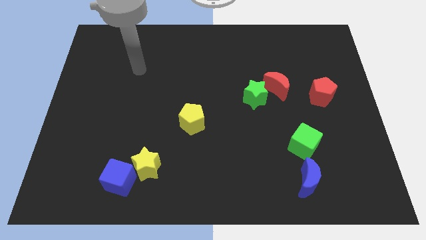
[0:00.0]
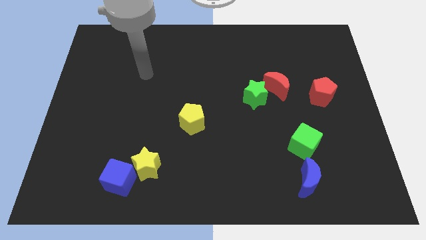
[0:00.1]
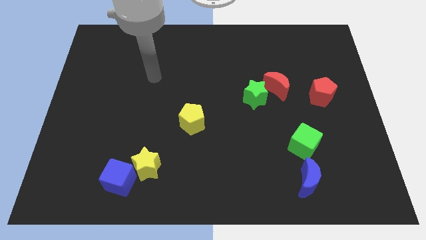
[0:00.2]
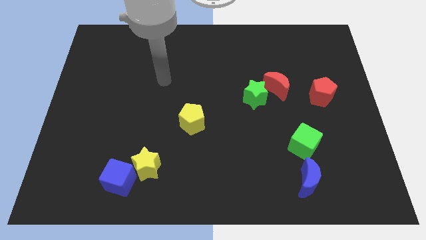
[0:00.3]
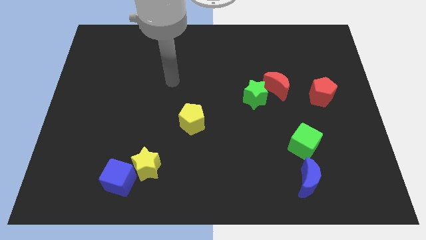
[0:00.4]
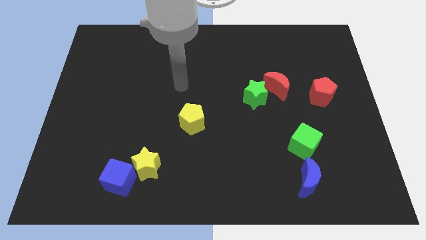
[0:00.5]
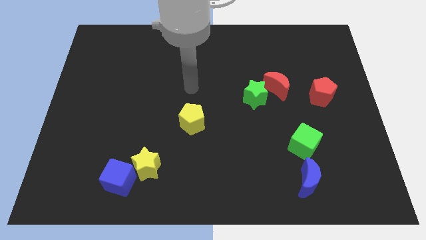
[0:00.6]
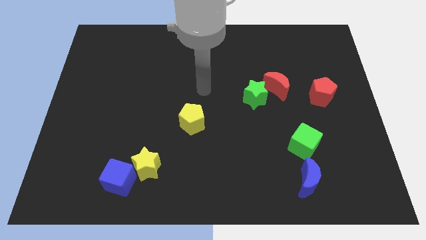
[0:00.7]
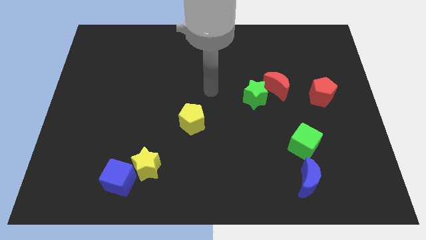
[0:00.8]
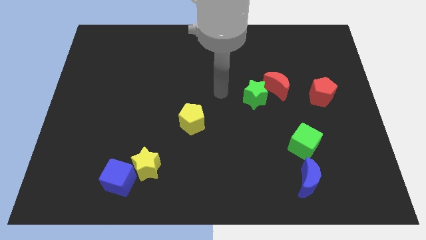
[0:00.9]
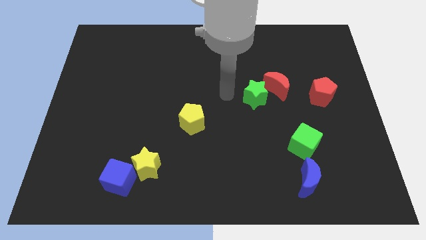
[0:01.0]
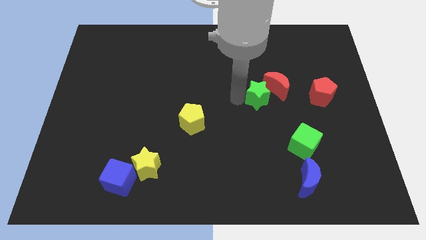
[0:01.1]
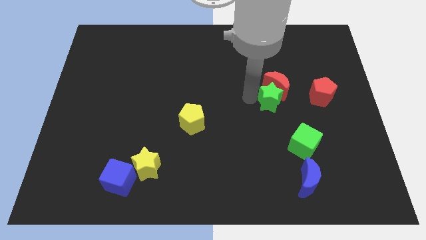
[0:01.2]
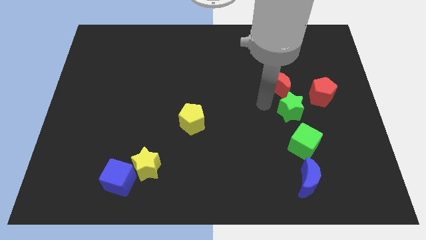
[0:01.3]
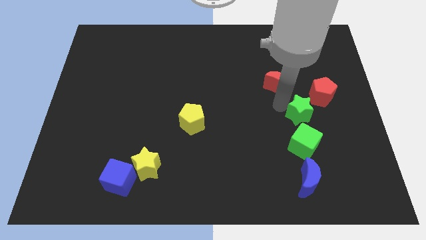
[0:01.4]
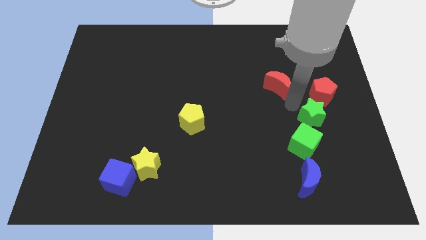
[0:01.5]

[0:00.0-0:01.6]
move the red moon away from the green star

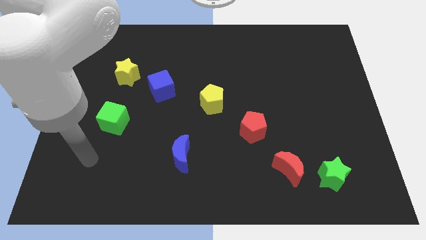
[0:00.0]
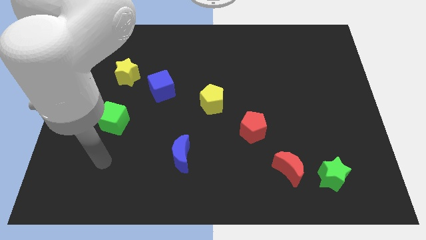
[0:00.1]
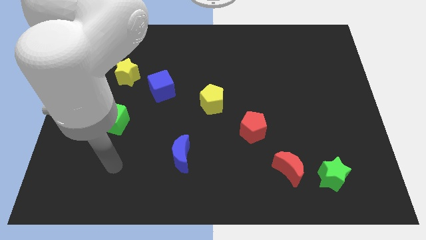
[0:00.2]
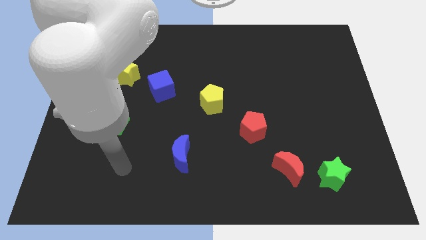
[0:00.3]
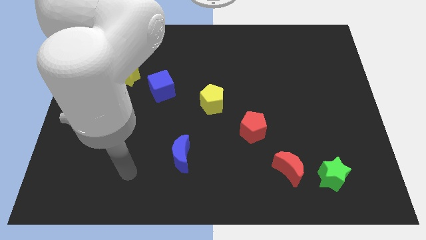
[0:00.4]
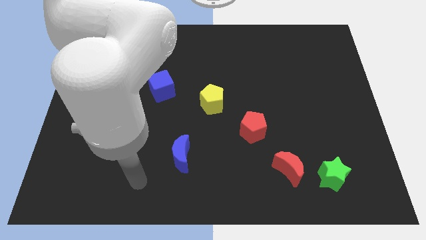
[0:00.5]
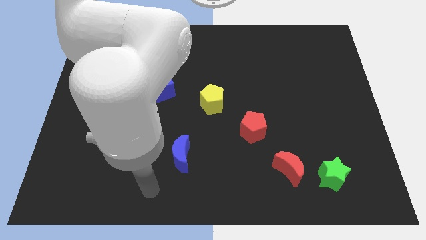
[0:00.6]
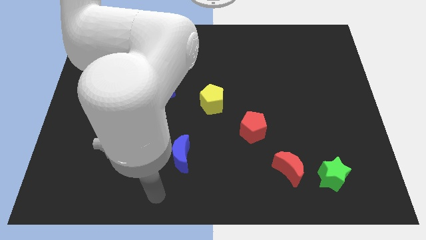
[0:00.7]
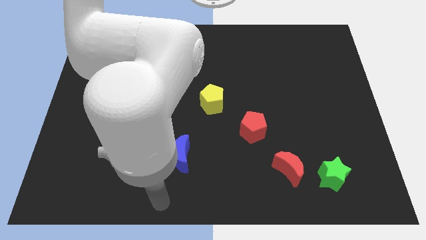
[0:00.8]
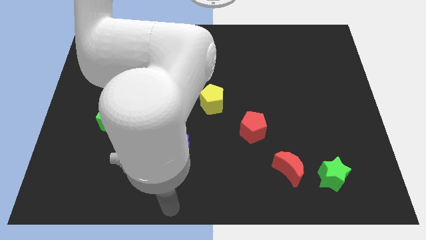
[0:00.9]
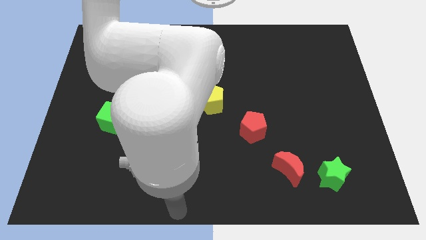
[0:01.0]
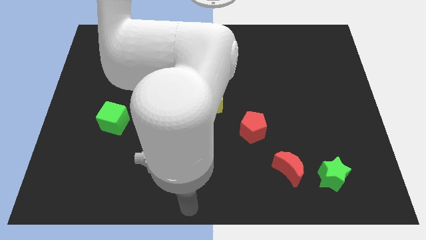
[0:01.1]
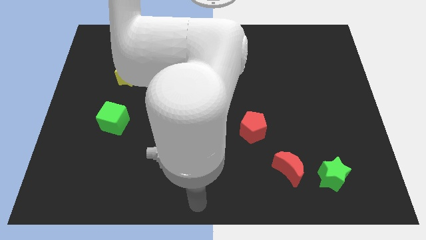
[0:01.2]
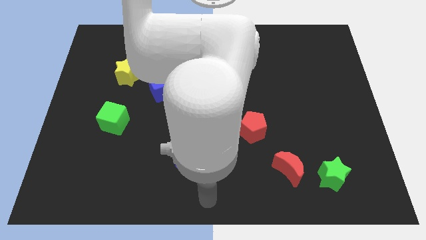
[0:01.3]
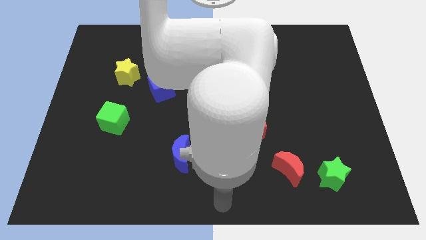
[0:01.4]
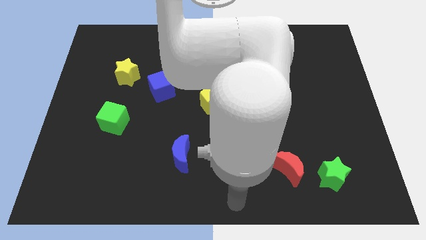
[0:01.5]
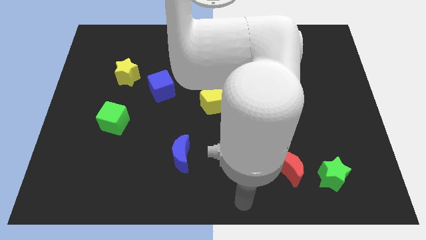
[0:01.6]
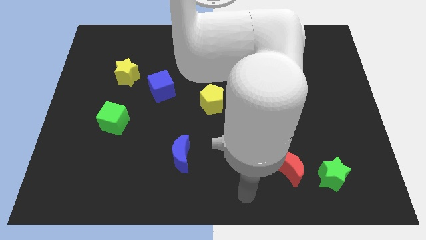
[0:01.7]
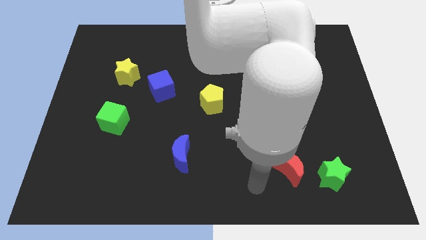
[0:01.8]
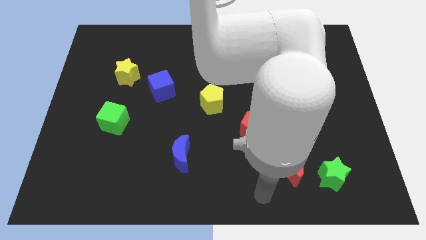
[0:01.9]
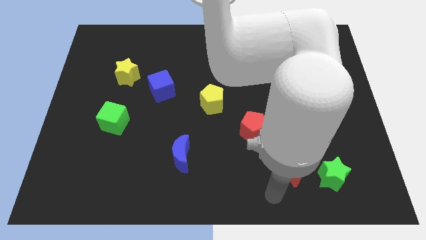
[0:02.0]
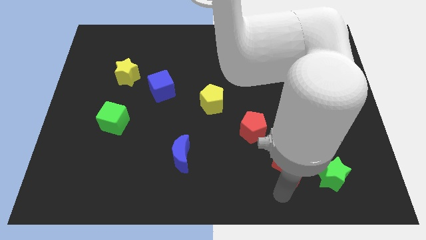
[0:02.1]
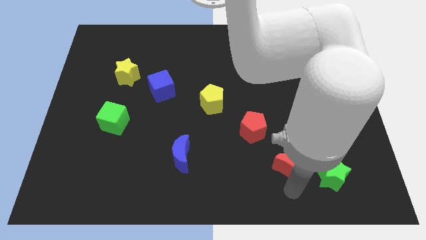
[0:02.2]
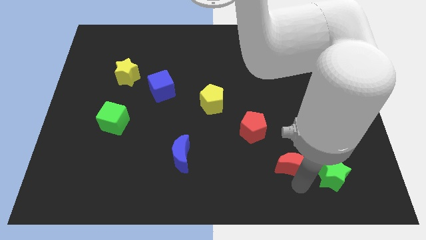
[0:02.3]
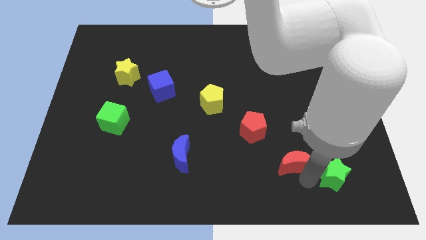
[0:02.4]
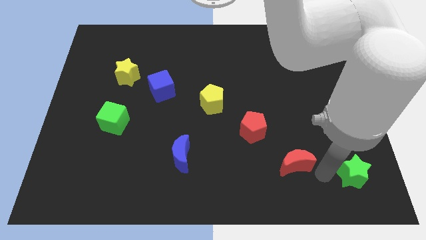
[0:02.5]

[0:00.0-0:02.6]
separate the red moon from the green star

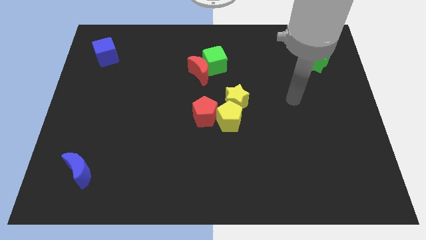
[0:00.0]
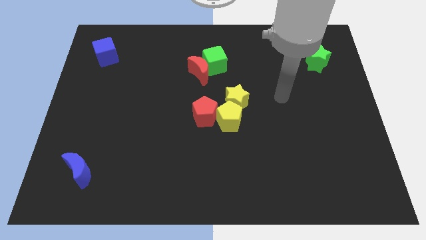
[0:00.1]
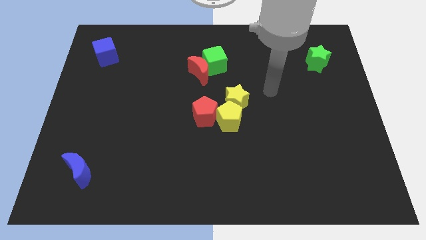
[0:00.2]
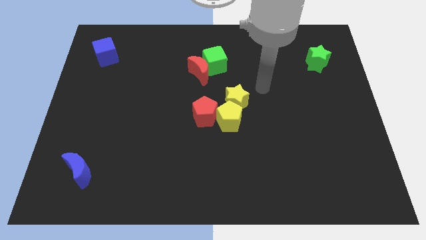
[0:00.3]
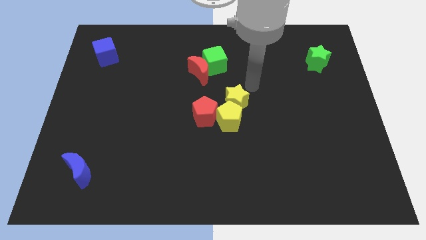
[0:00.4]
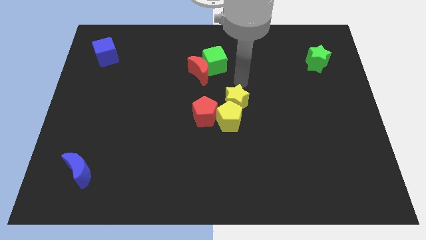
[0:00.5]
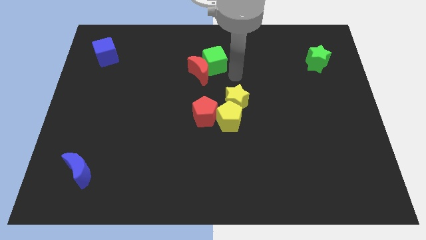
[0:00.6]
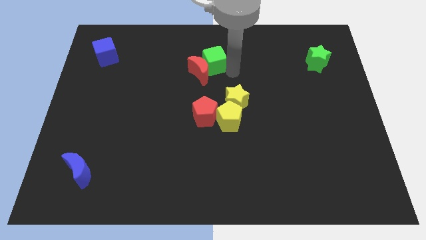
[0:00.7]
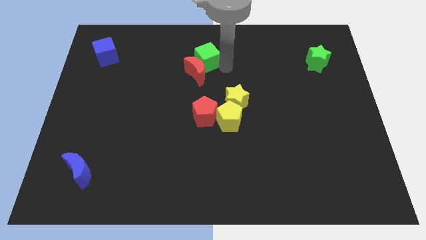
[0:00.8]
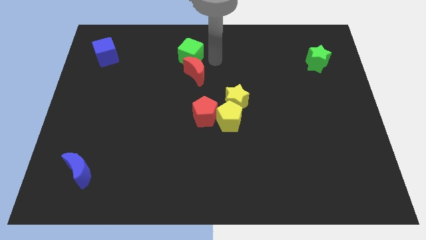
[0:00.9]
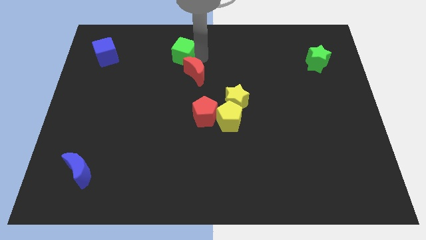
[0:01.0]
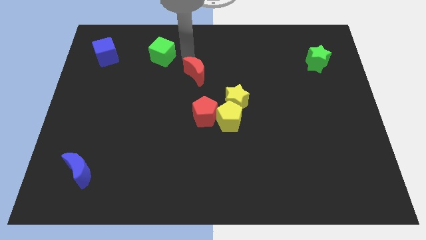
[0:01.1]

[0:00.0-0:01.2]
pull the red moon apart from the green cube

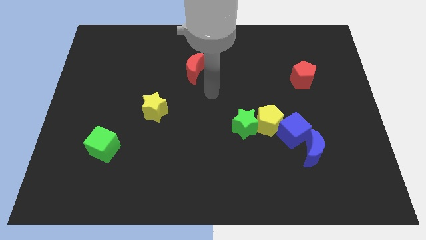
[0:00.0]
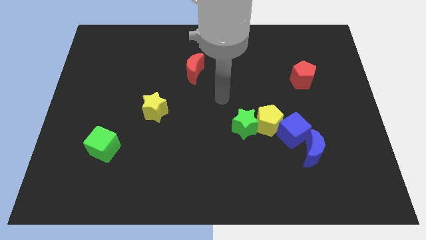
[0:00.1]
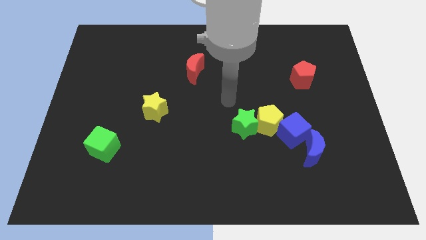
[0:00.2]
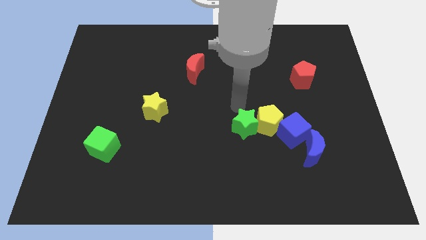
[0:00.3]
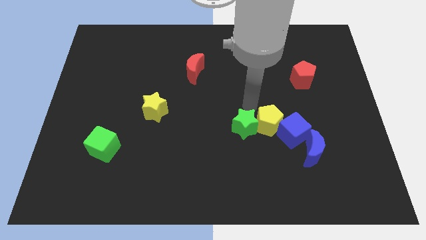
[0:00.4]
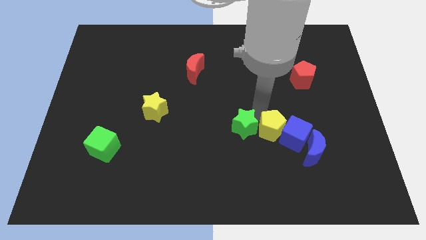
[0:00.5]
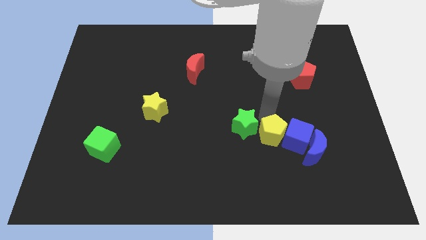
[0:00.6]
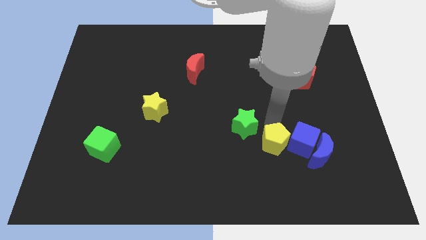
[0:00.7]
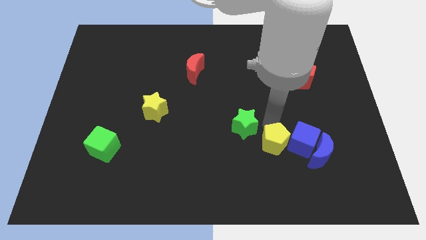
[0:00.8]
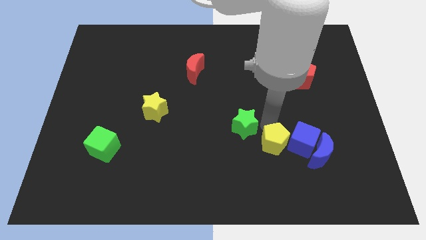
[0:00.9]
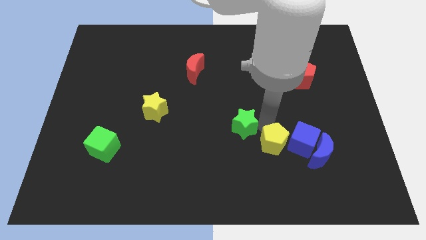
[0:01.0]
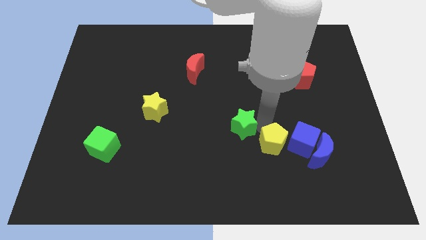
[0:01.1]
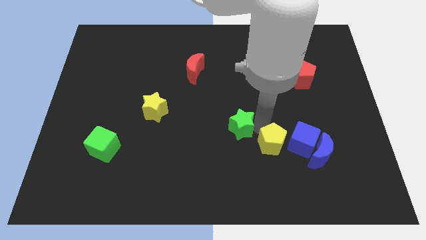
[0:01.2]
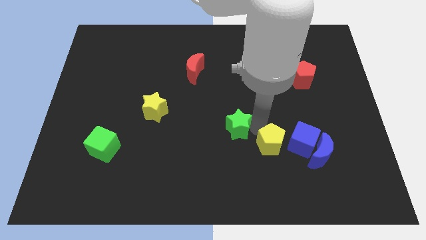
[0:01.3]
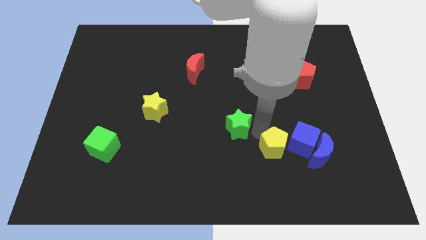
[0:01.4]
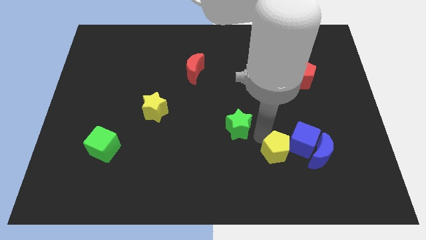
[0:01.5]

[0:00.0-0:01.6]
separate the green star from the yellow pentagon

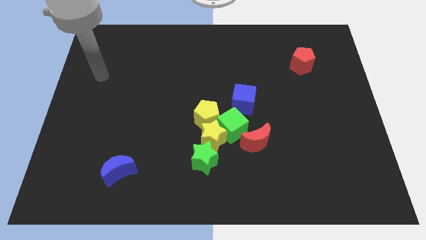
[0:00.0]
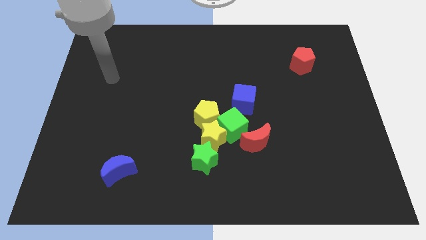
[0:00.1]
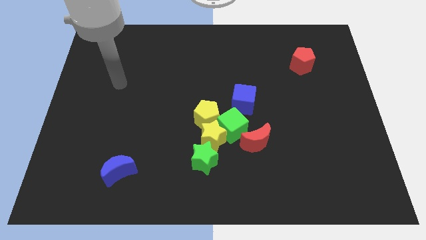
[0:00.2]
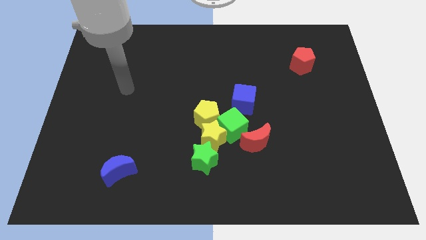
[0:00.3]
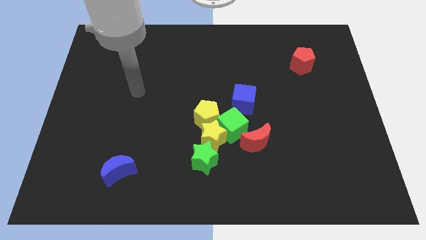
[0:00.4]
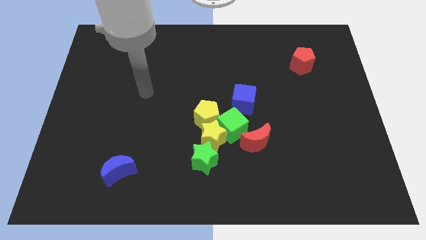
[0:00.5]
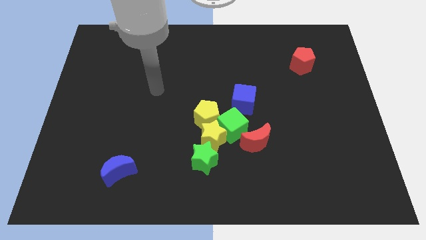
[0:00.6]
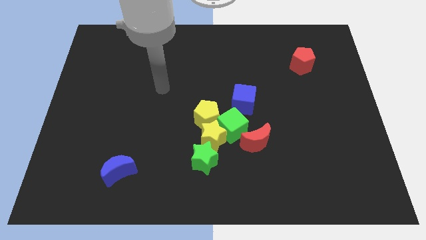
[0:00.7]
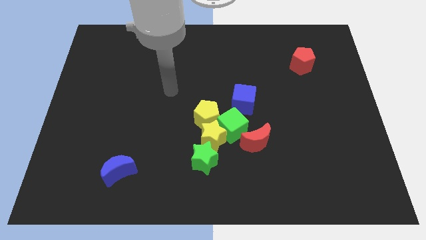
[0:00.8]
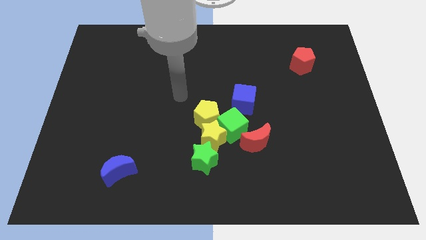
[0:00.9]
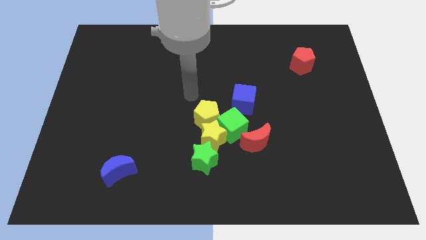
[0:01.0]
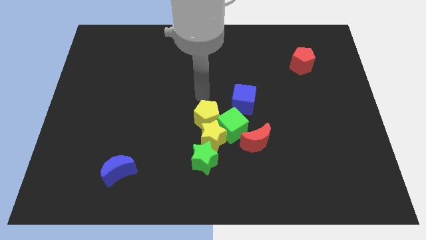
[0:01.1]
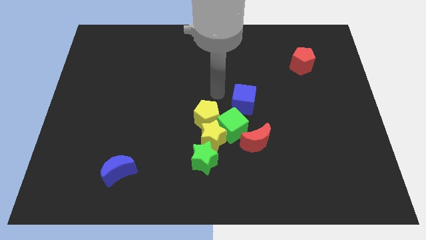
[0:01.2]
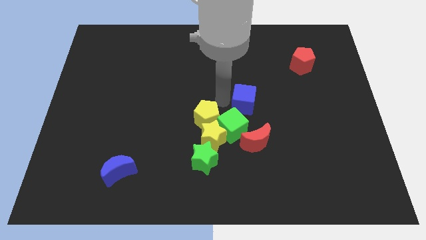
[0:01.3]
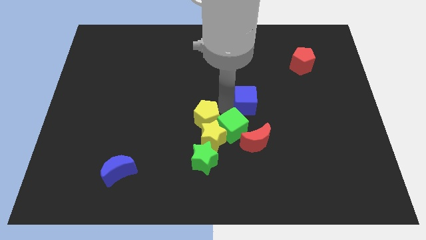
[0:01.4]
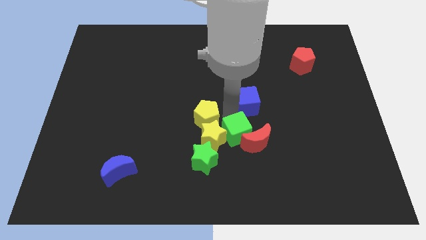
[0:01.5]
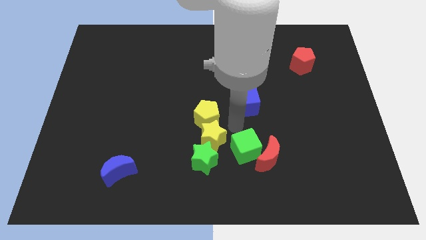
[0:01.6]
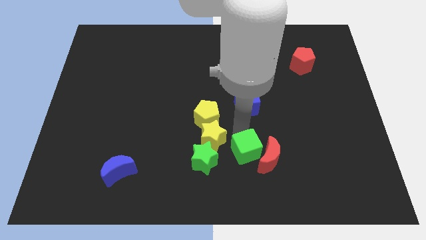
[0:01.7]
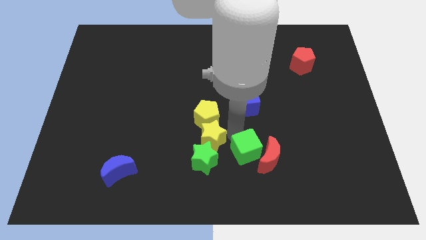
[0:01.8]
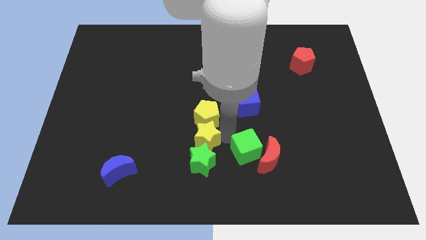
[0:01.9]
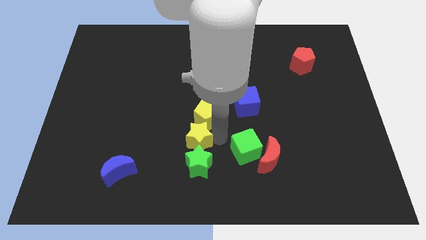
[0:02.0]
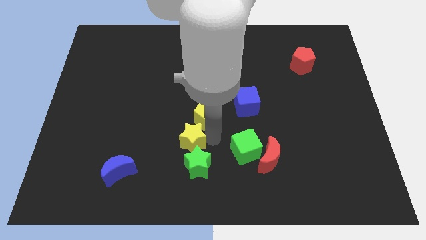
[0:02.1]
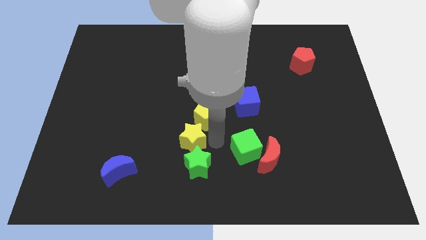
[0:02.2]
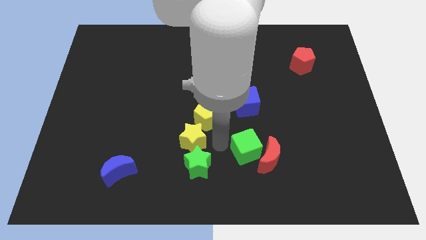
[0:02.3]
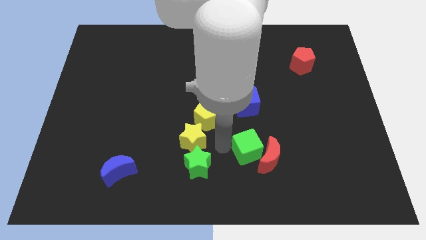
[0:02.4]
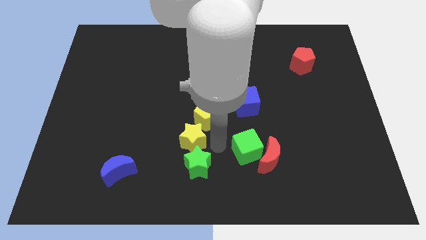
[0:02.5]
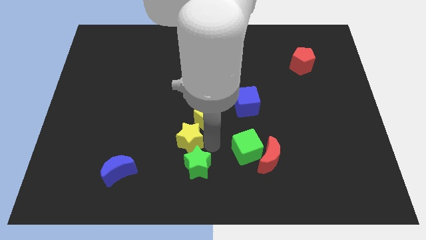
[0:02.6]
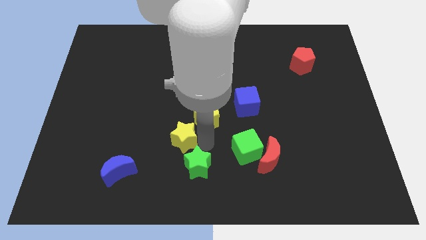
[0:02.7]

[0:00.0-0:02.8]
move the yellow star away from the group
